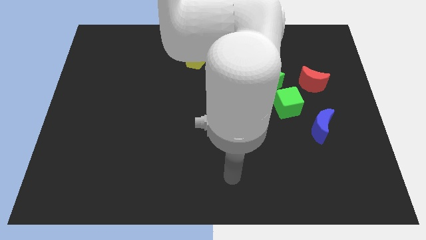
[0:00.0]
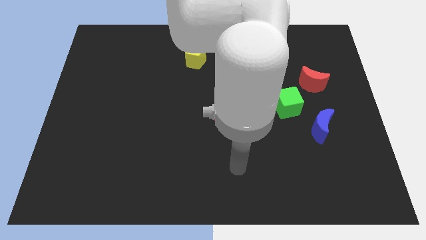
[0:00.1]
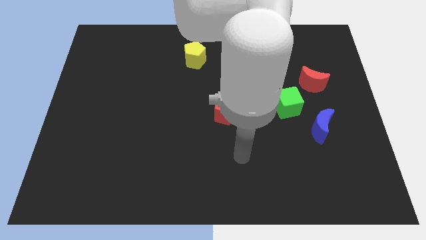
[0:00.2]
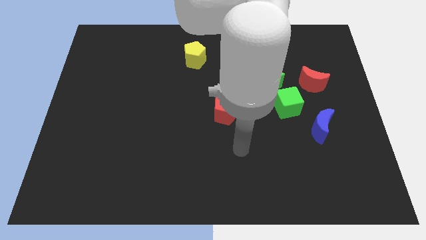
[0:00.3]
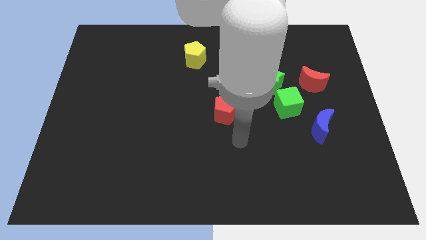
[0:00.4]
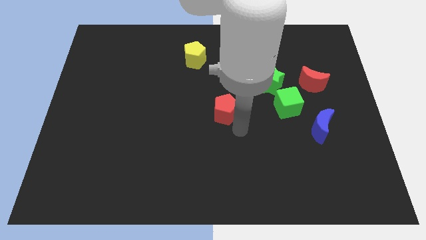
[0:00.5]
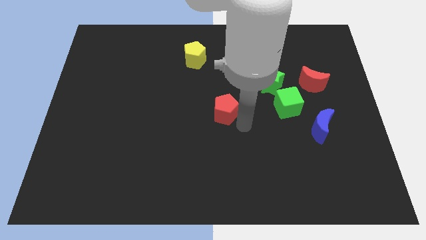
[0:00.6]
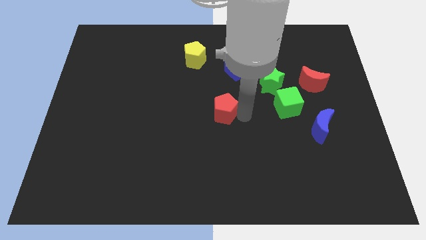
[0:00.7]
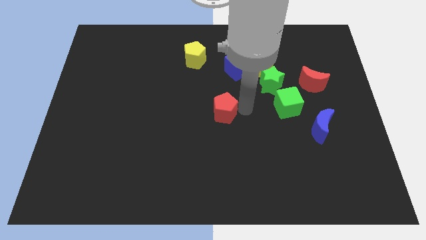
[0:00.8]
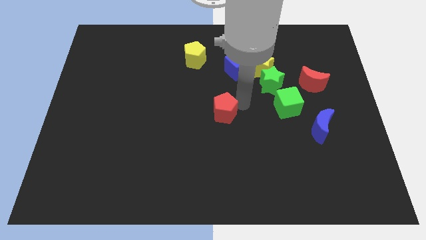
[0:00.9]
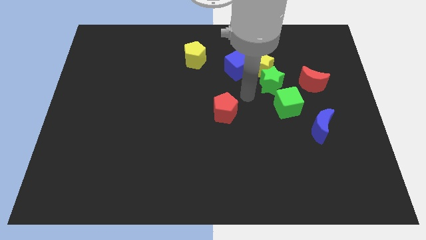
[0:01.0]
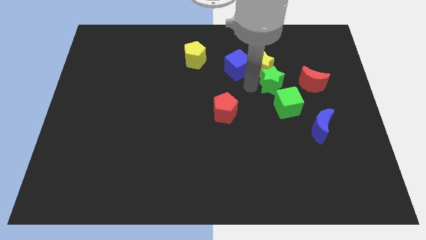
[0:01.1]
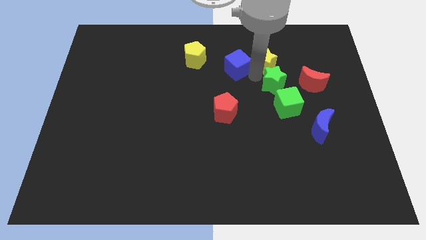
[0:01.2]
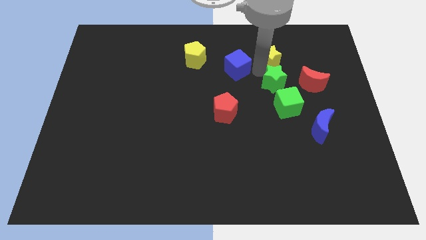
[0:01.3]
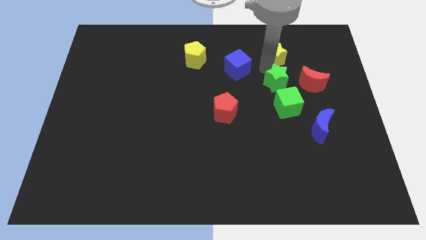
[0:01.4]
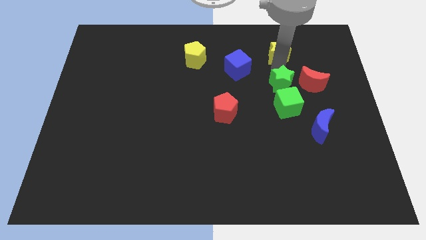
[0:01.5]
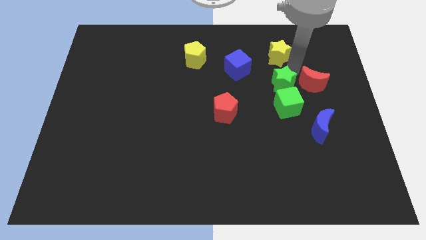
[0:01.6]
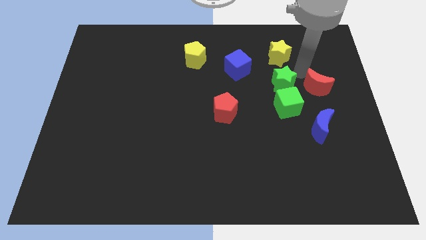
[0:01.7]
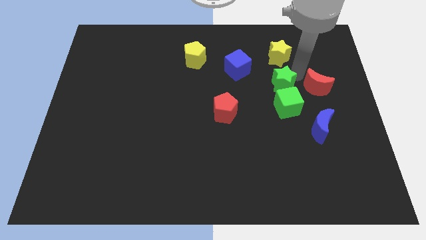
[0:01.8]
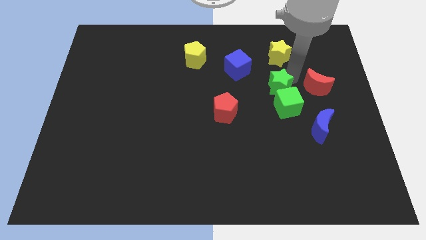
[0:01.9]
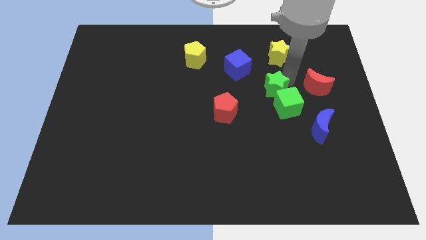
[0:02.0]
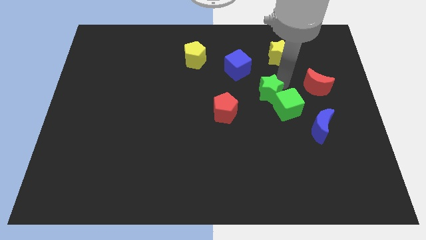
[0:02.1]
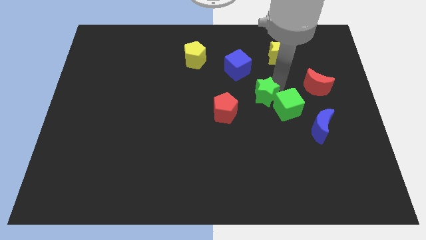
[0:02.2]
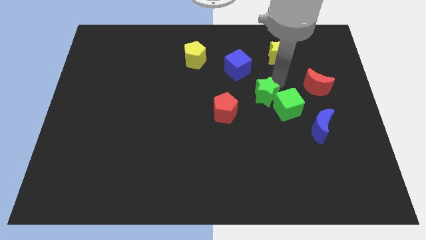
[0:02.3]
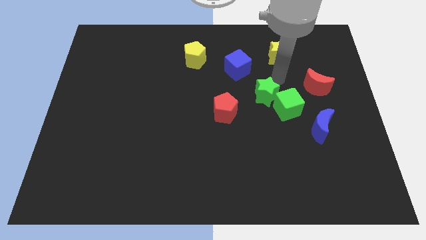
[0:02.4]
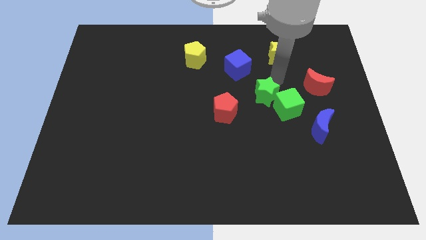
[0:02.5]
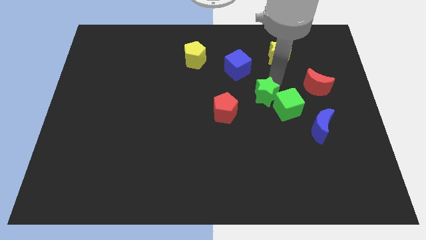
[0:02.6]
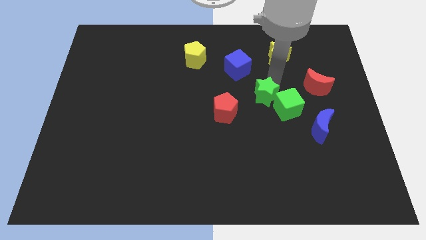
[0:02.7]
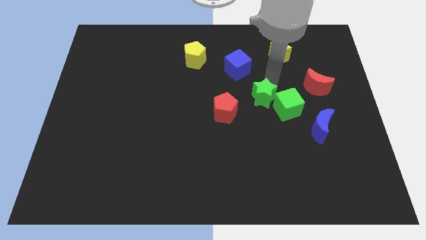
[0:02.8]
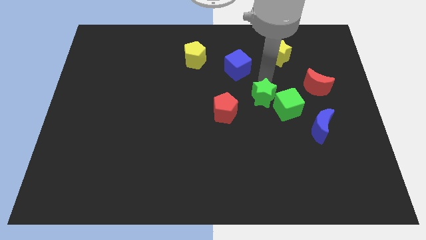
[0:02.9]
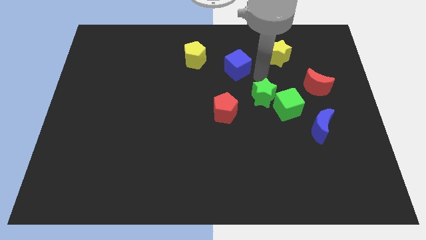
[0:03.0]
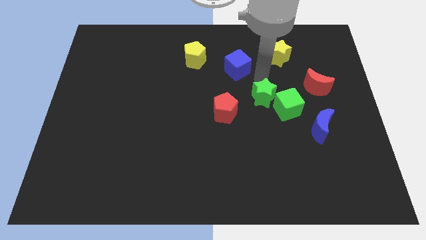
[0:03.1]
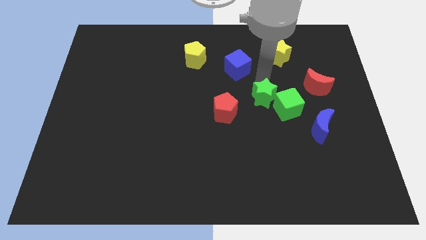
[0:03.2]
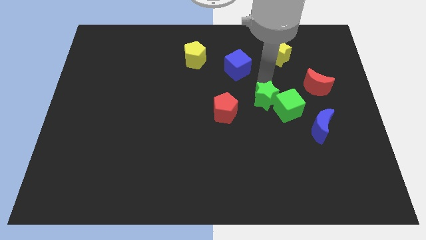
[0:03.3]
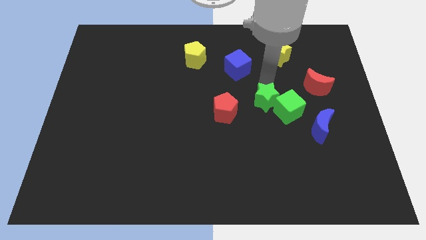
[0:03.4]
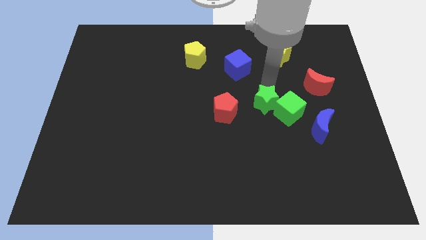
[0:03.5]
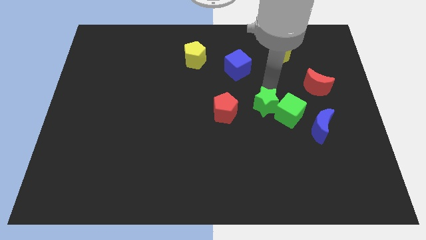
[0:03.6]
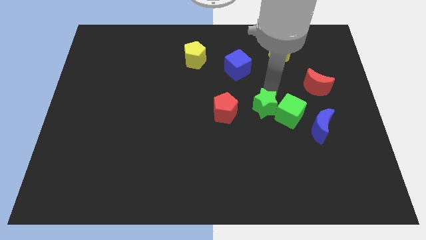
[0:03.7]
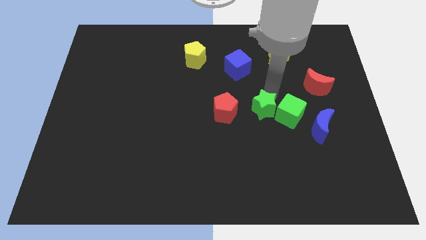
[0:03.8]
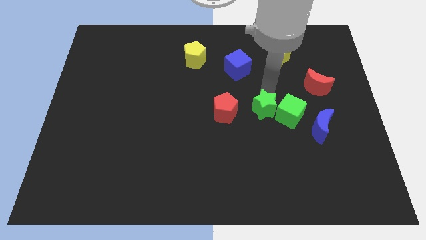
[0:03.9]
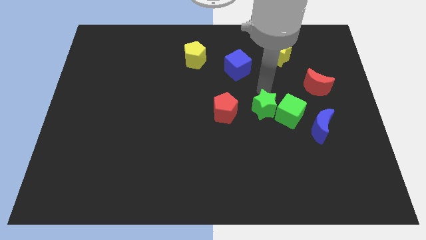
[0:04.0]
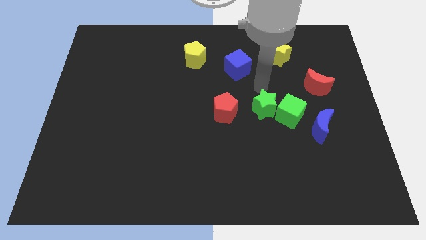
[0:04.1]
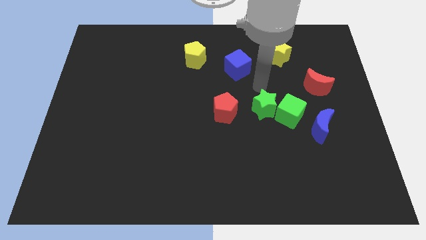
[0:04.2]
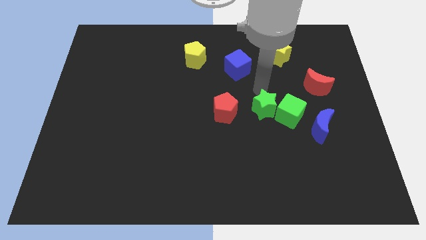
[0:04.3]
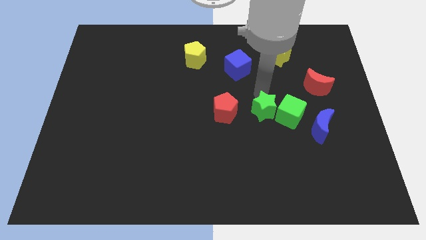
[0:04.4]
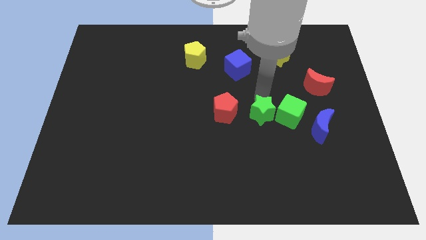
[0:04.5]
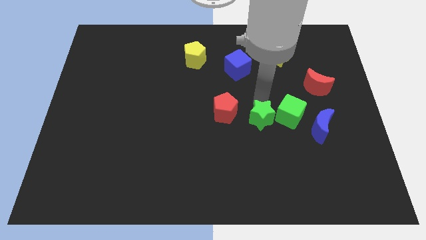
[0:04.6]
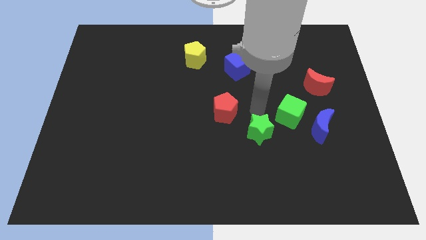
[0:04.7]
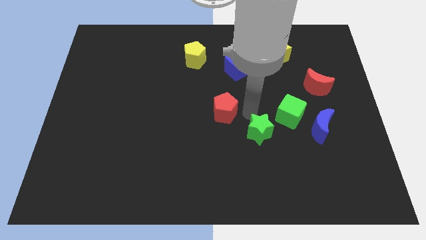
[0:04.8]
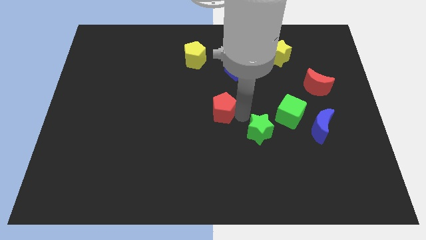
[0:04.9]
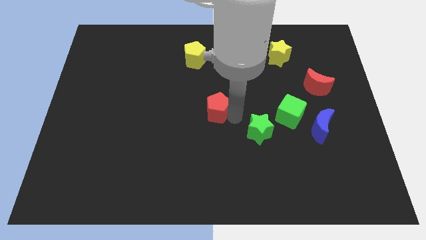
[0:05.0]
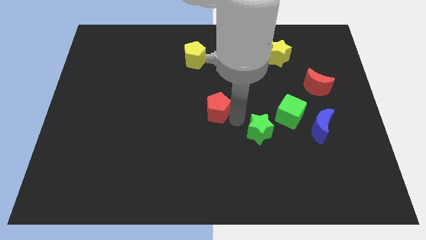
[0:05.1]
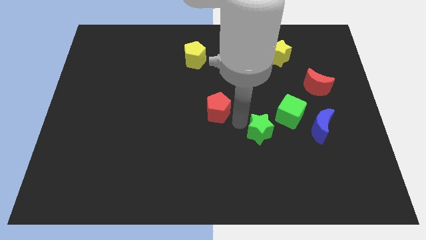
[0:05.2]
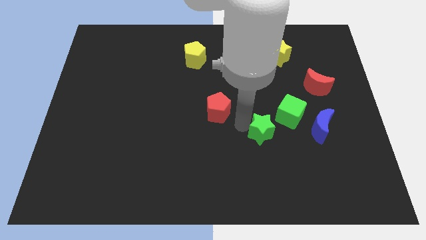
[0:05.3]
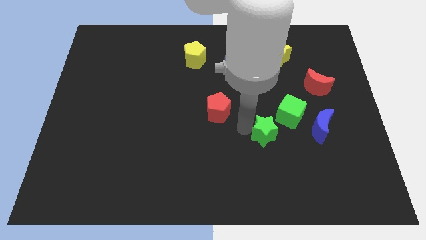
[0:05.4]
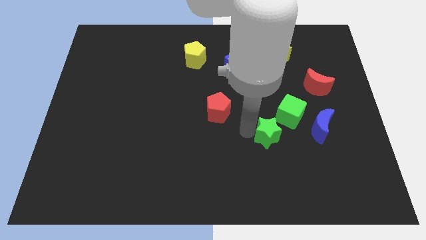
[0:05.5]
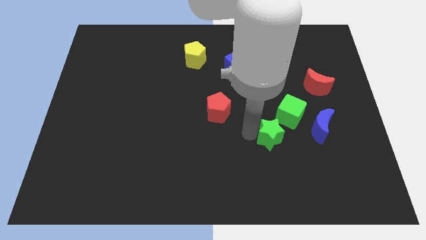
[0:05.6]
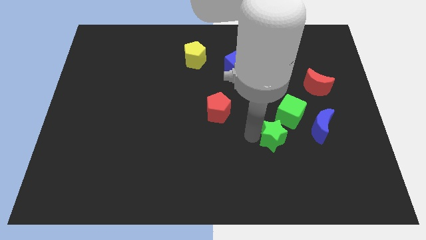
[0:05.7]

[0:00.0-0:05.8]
put the green star below the green cube

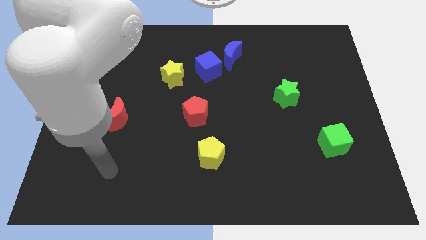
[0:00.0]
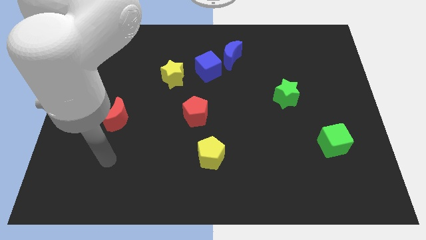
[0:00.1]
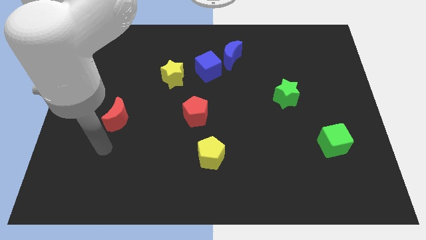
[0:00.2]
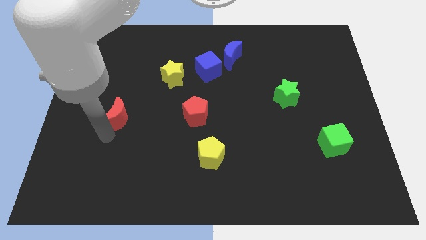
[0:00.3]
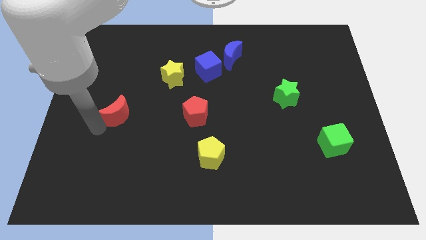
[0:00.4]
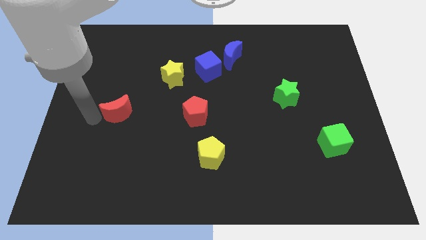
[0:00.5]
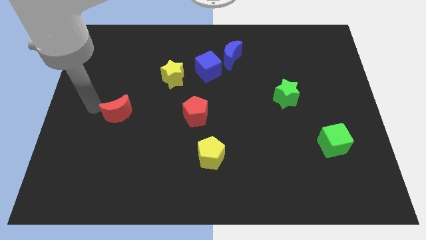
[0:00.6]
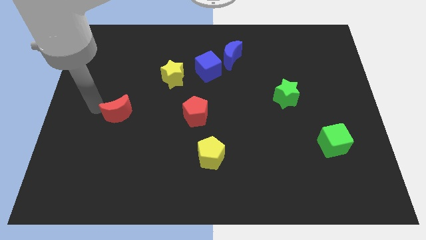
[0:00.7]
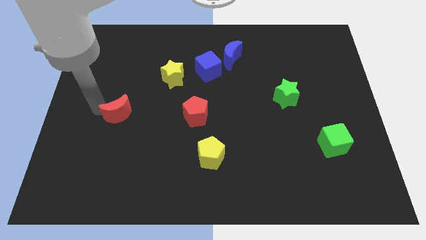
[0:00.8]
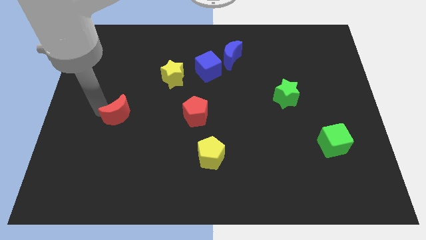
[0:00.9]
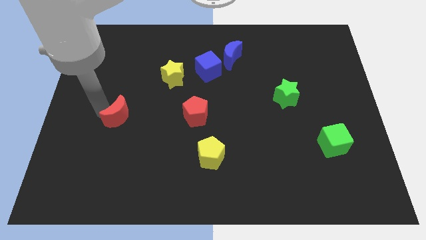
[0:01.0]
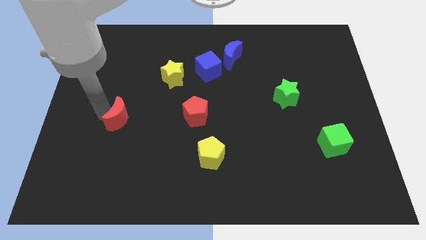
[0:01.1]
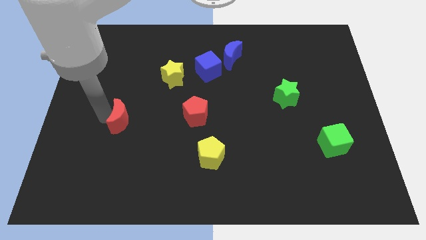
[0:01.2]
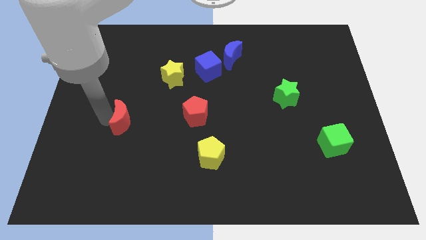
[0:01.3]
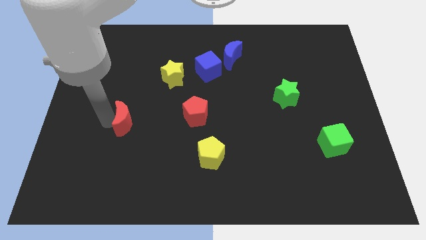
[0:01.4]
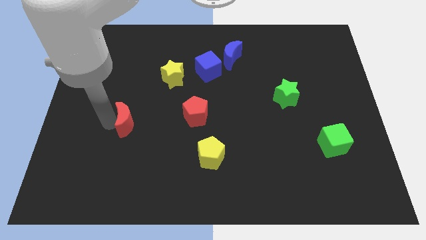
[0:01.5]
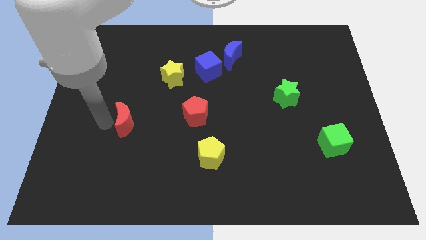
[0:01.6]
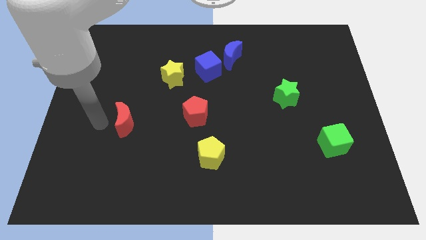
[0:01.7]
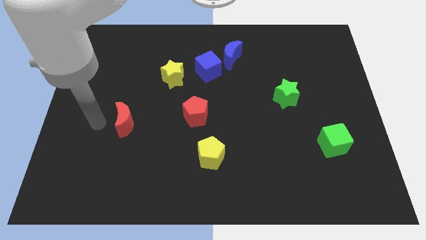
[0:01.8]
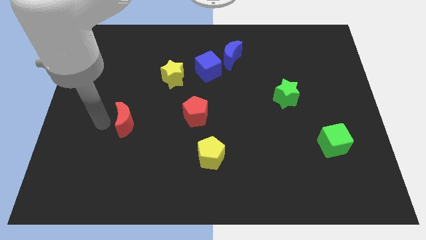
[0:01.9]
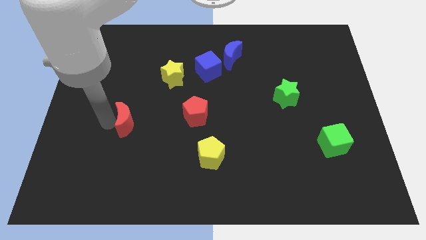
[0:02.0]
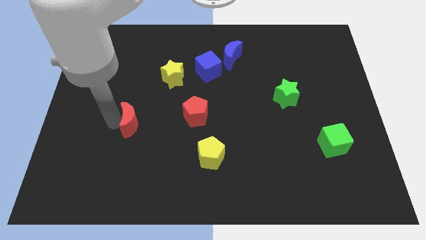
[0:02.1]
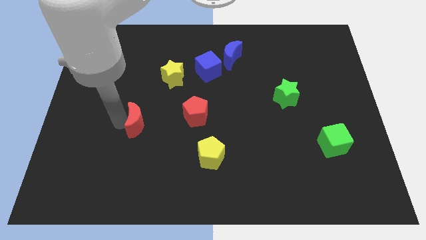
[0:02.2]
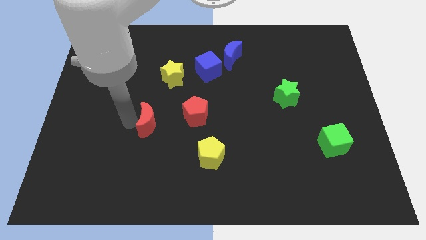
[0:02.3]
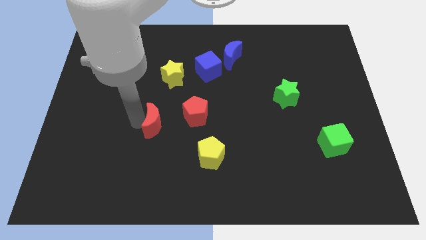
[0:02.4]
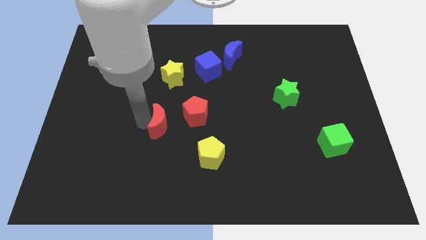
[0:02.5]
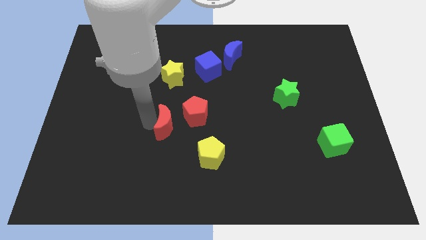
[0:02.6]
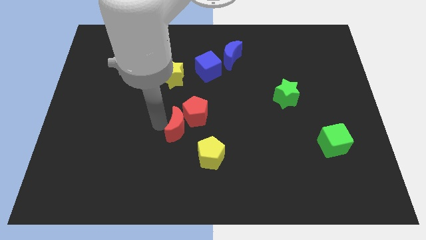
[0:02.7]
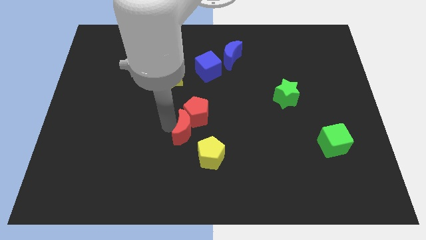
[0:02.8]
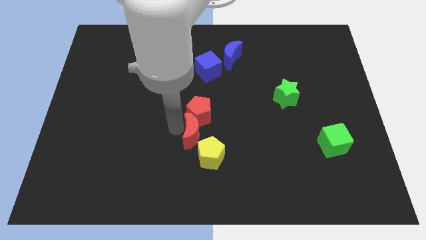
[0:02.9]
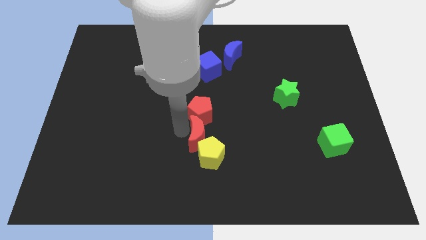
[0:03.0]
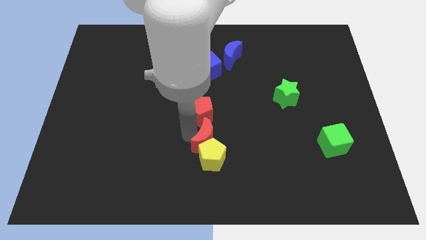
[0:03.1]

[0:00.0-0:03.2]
move the red moon to the top right of the yellow pentagon
